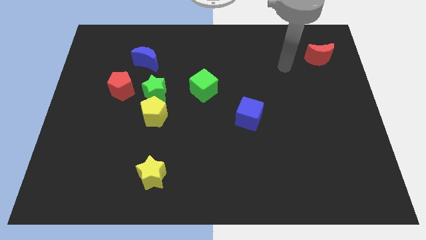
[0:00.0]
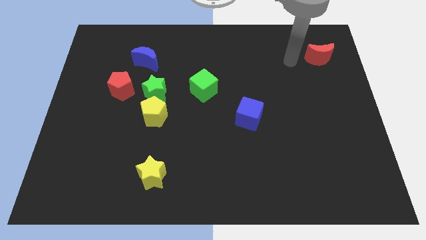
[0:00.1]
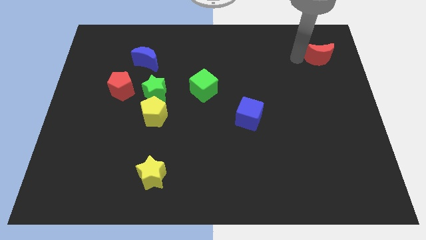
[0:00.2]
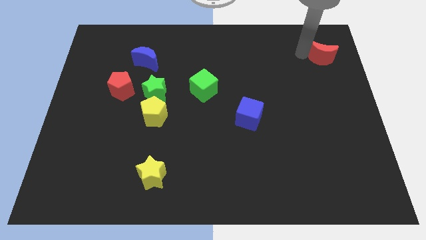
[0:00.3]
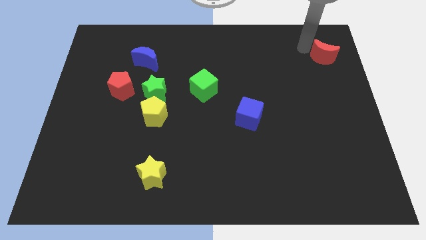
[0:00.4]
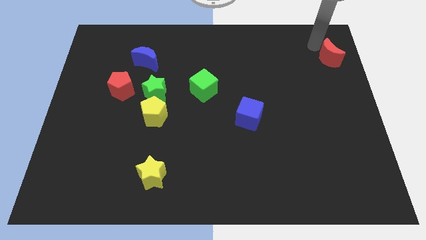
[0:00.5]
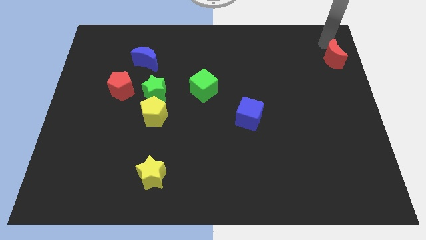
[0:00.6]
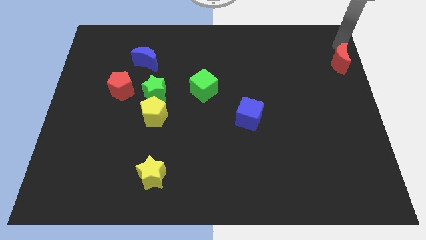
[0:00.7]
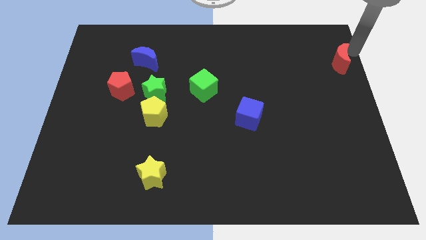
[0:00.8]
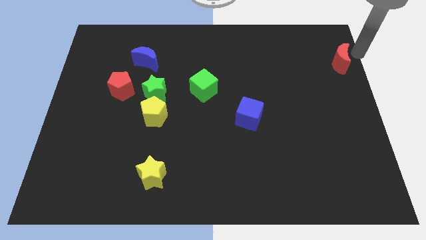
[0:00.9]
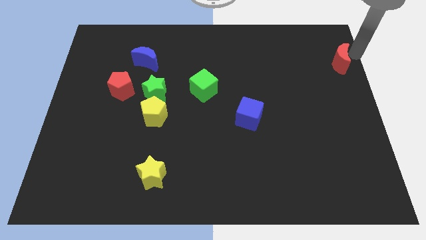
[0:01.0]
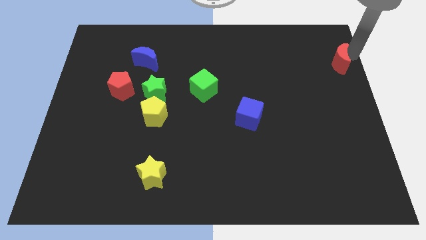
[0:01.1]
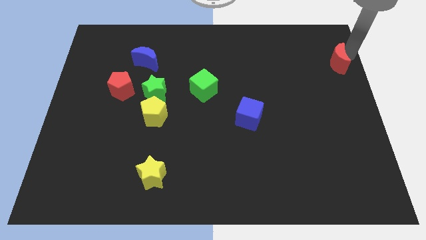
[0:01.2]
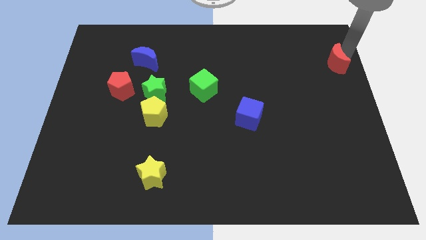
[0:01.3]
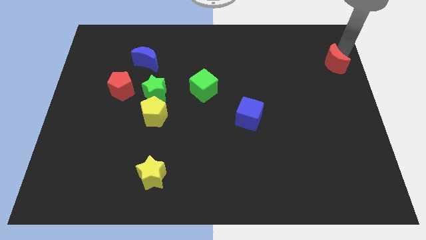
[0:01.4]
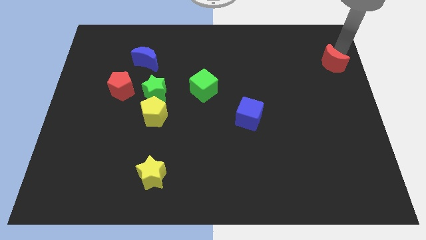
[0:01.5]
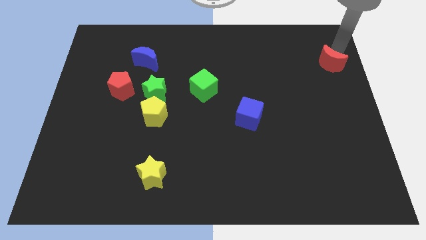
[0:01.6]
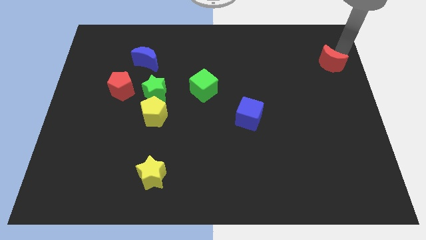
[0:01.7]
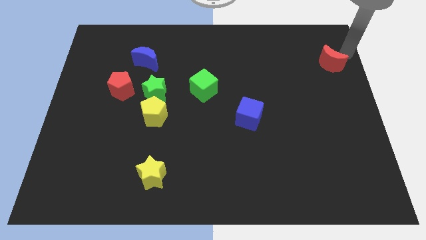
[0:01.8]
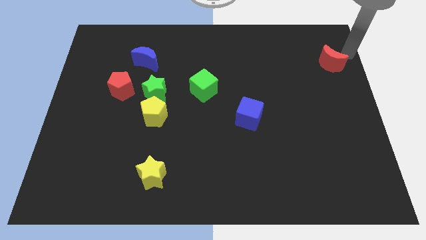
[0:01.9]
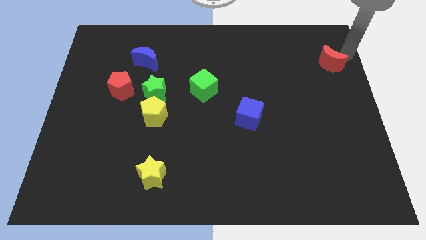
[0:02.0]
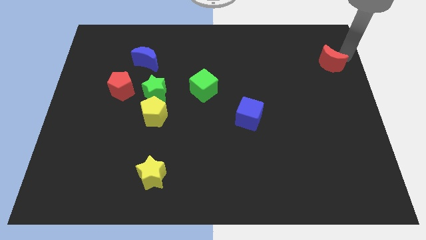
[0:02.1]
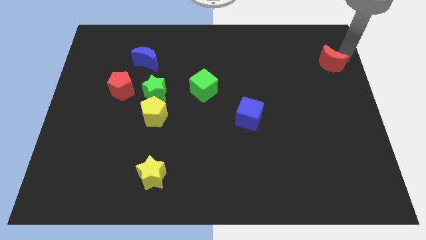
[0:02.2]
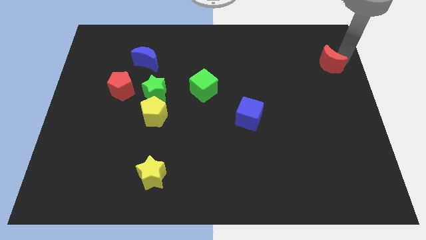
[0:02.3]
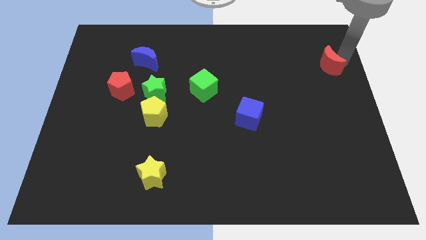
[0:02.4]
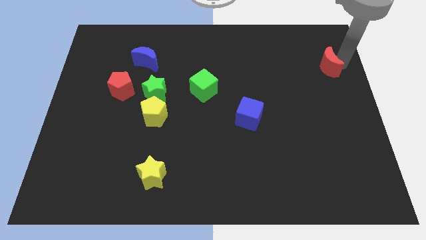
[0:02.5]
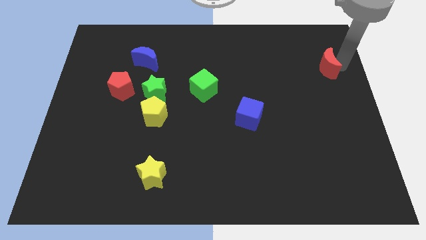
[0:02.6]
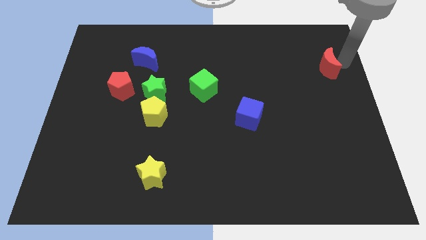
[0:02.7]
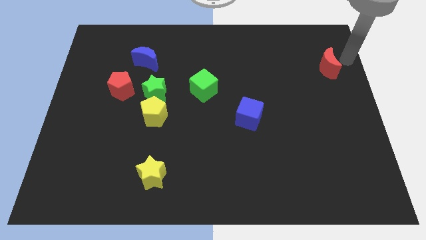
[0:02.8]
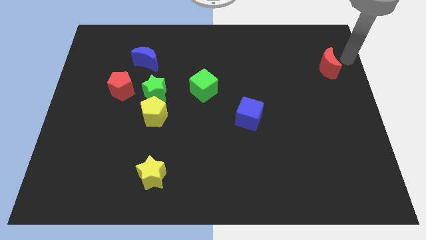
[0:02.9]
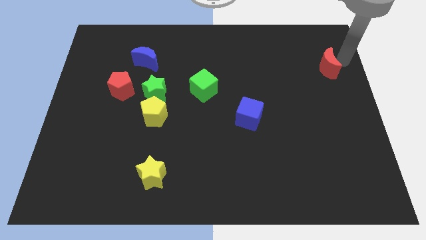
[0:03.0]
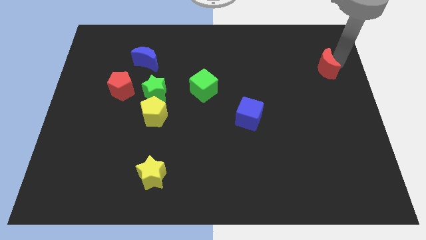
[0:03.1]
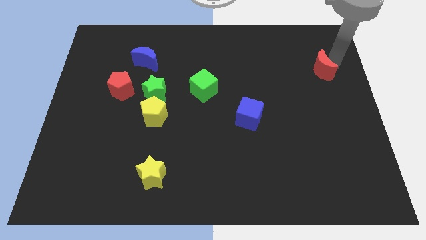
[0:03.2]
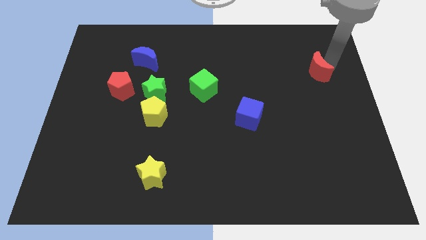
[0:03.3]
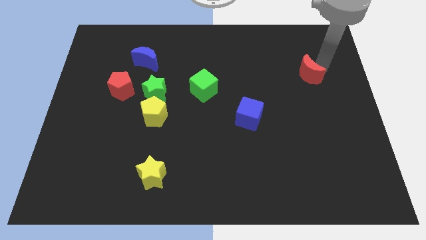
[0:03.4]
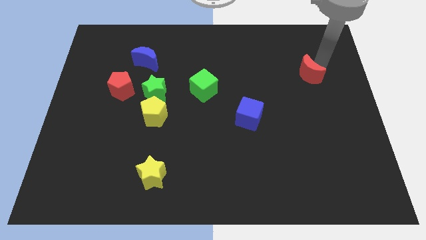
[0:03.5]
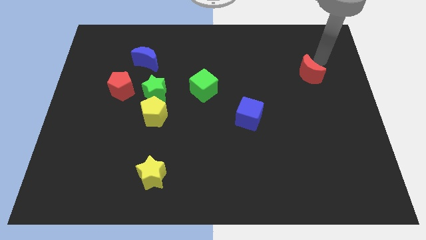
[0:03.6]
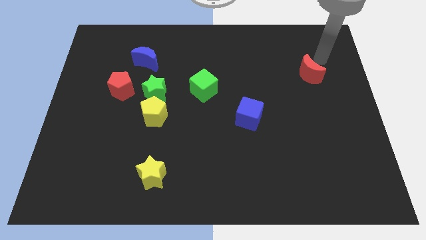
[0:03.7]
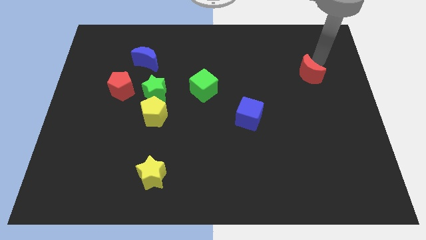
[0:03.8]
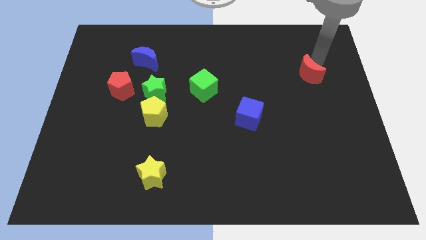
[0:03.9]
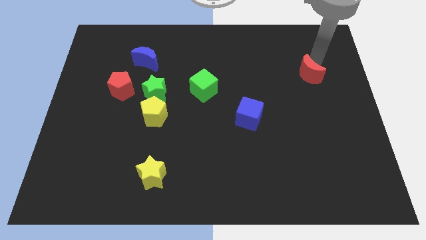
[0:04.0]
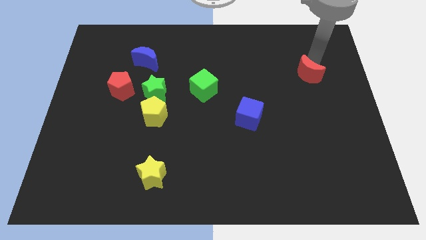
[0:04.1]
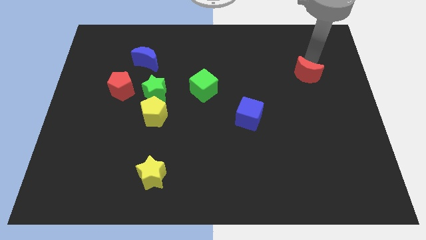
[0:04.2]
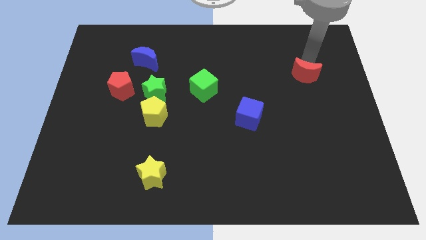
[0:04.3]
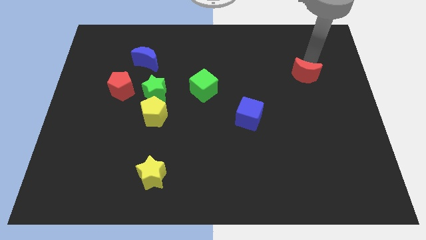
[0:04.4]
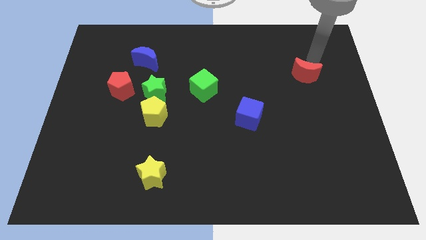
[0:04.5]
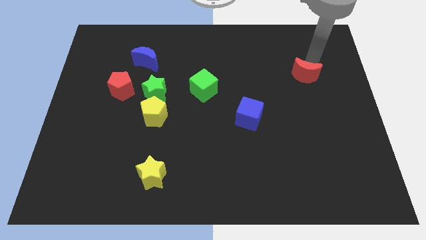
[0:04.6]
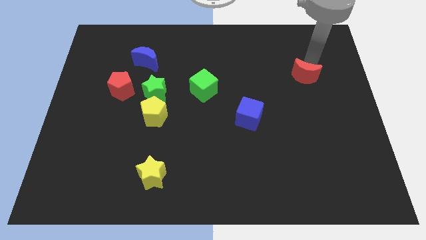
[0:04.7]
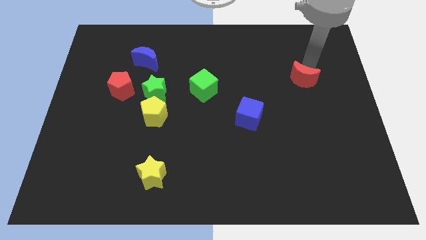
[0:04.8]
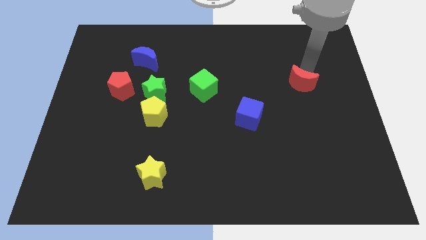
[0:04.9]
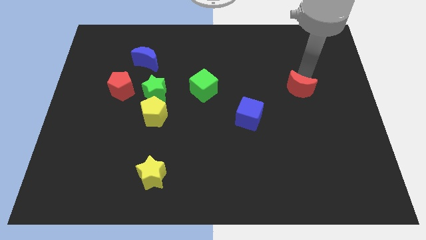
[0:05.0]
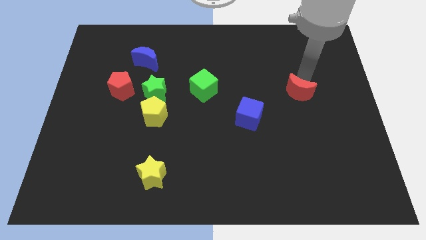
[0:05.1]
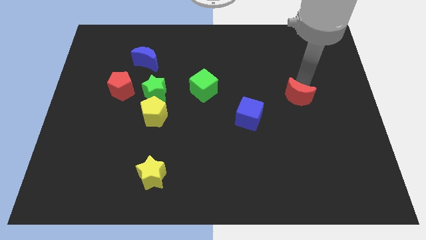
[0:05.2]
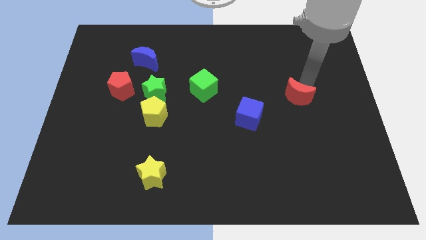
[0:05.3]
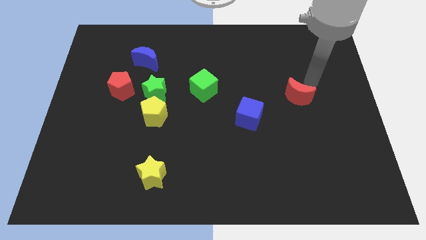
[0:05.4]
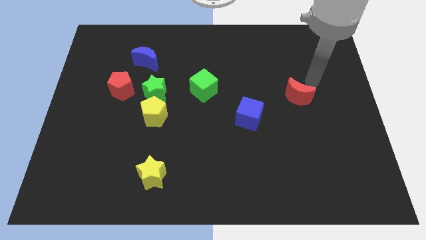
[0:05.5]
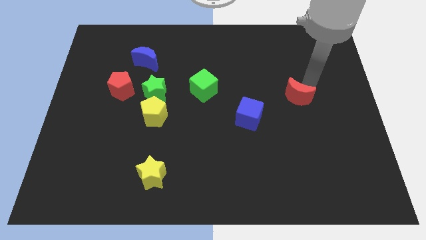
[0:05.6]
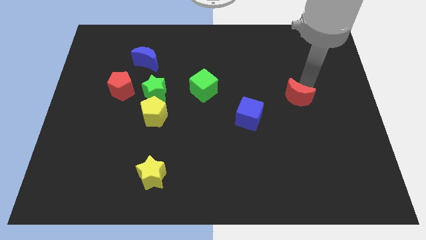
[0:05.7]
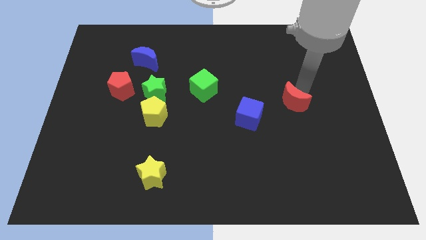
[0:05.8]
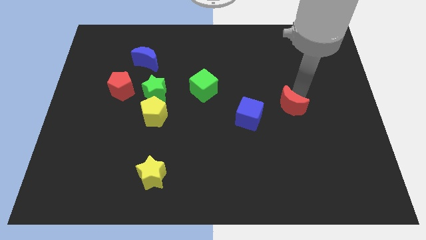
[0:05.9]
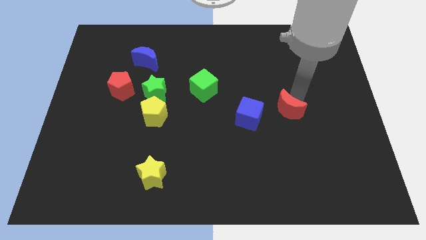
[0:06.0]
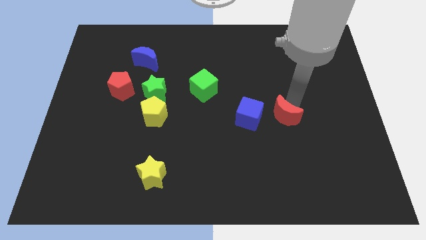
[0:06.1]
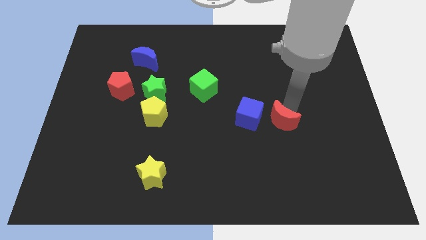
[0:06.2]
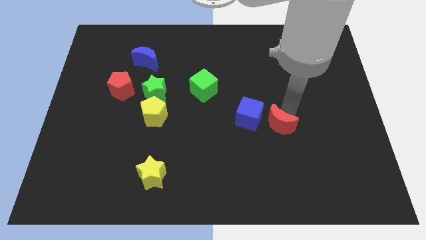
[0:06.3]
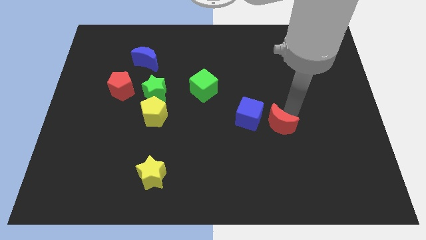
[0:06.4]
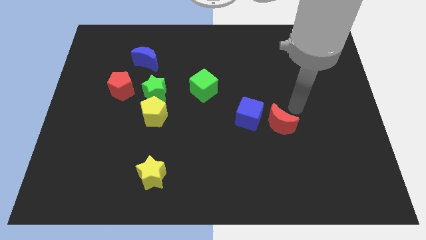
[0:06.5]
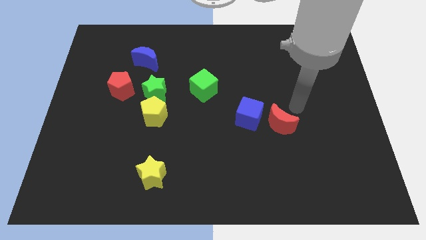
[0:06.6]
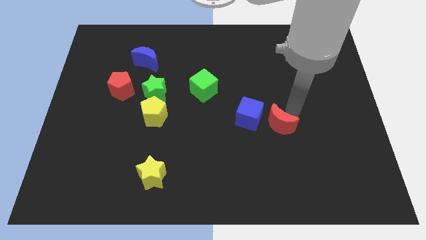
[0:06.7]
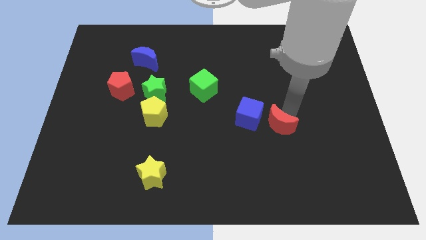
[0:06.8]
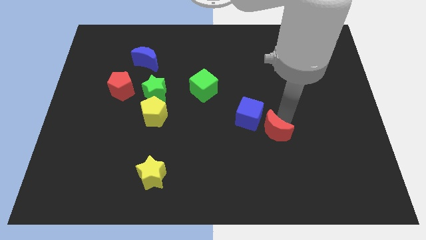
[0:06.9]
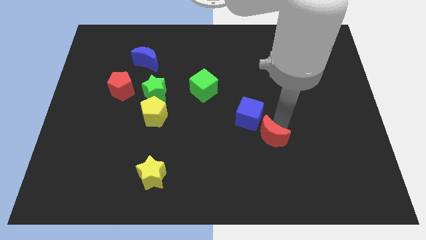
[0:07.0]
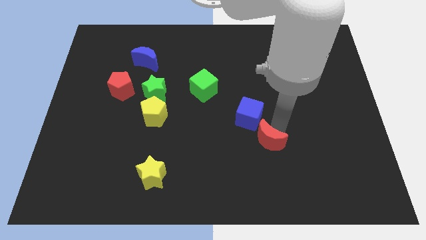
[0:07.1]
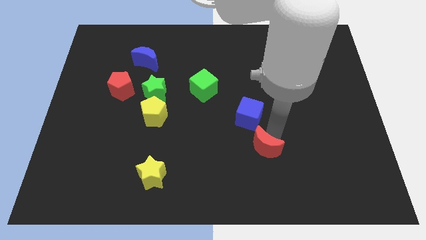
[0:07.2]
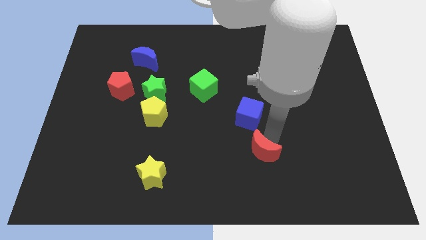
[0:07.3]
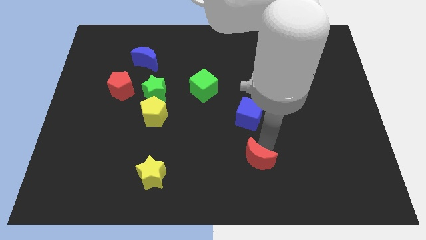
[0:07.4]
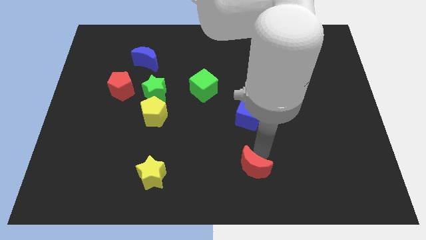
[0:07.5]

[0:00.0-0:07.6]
move the red moon to the bottom side
